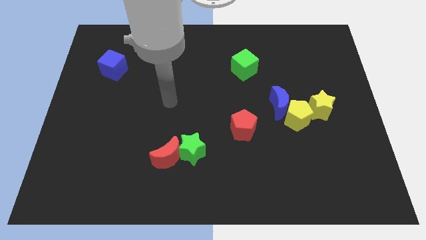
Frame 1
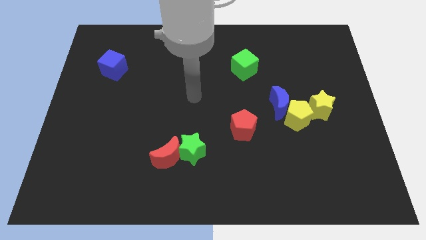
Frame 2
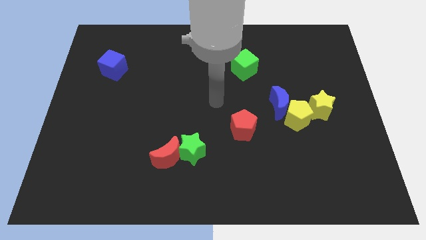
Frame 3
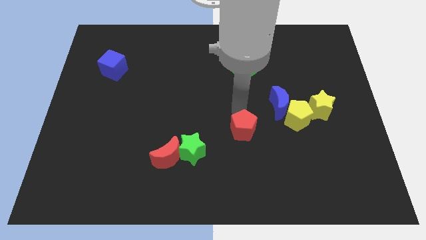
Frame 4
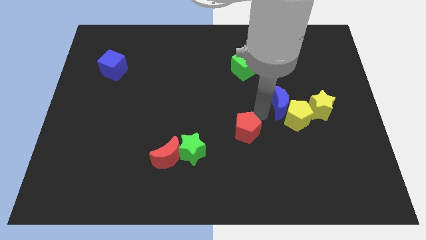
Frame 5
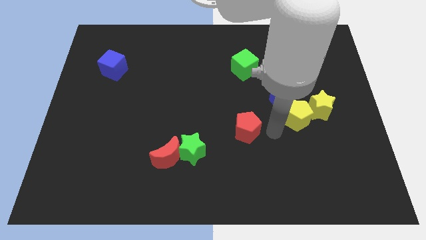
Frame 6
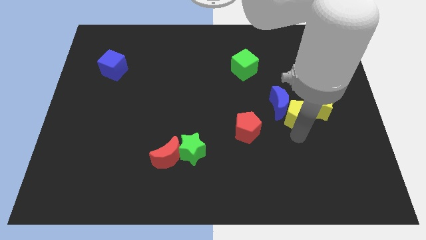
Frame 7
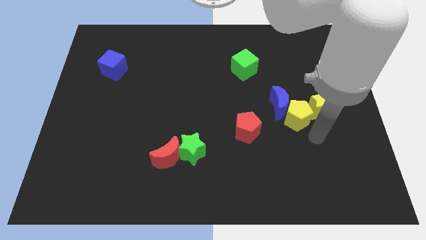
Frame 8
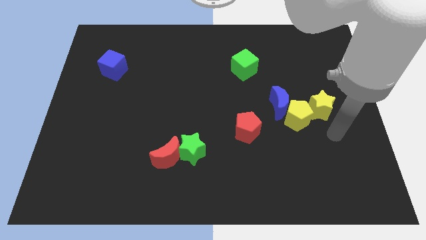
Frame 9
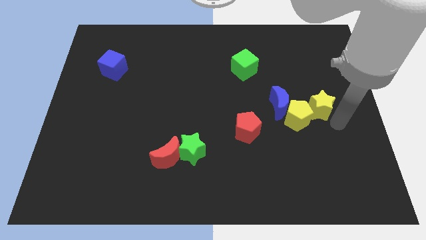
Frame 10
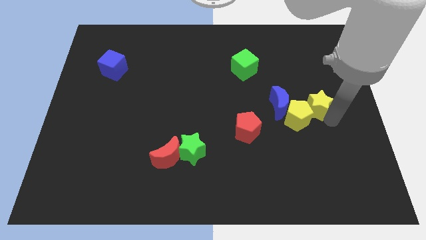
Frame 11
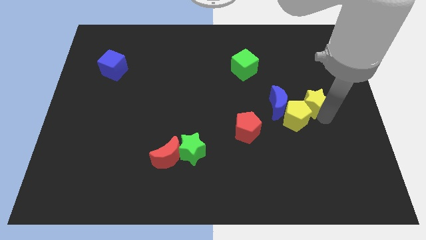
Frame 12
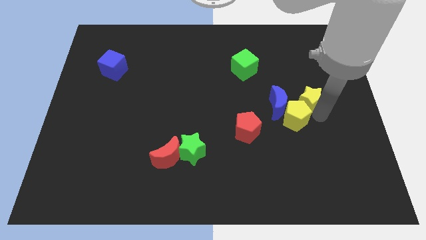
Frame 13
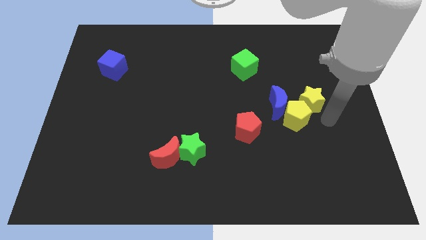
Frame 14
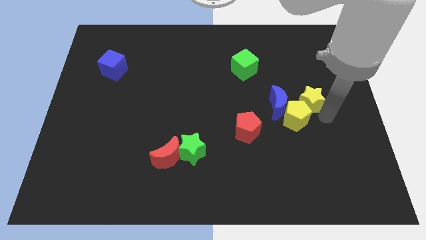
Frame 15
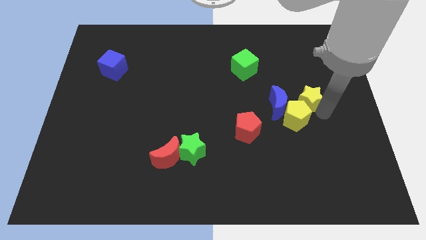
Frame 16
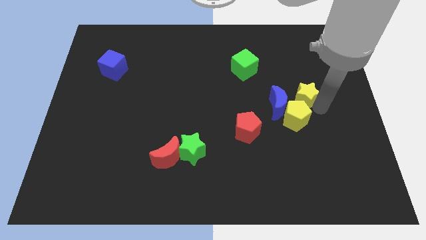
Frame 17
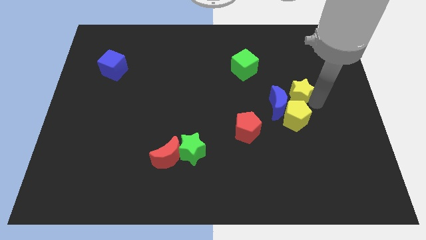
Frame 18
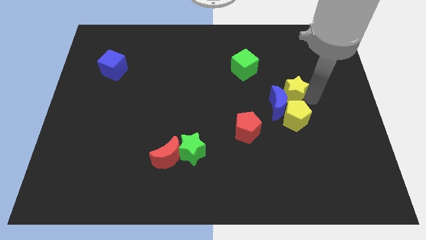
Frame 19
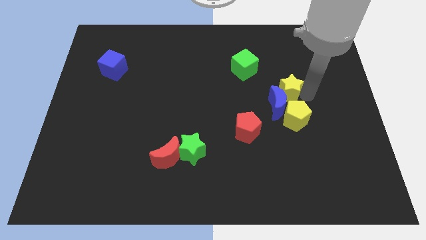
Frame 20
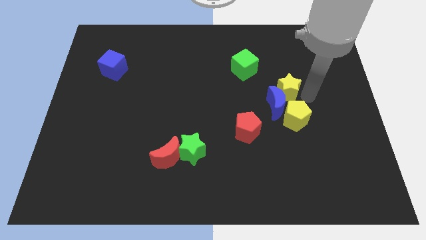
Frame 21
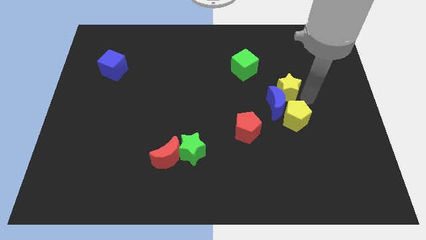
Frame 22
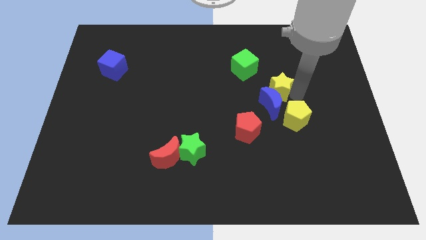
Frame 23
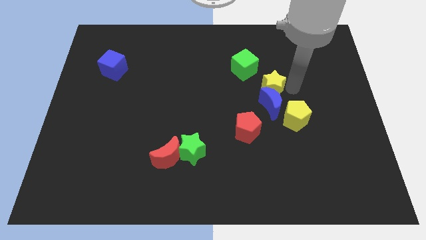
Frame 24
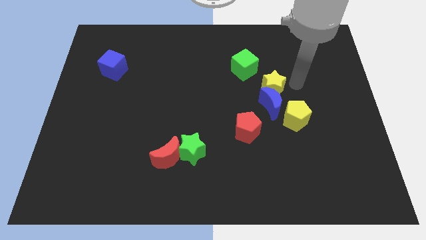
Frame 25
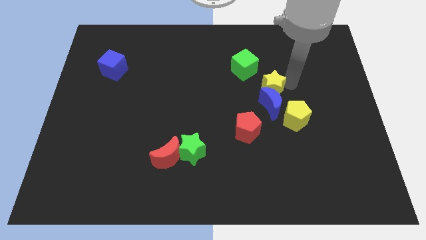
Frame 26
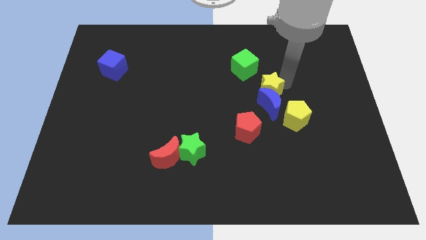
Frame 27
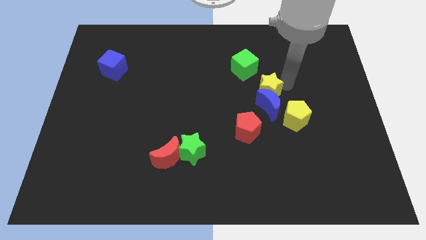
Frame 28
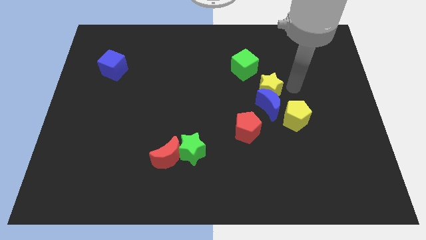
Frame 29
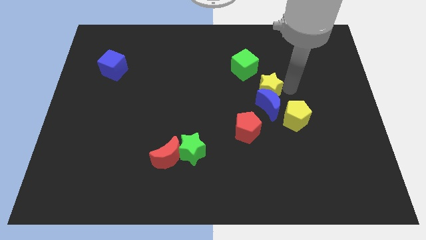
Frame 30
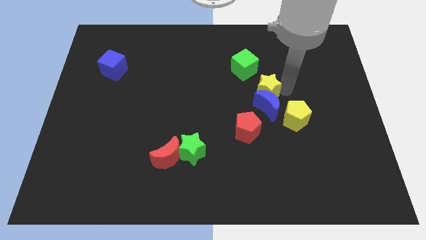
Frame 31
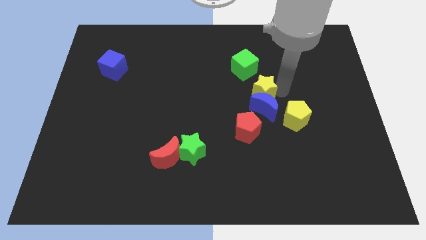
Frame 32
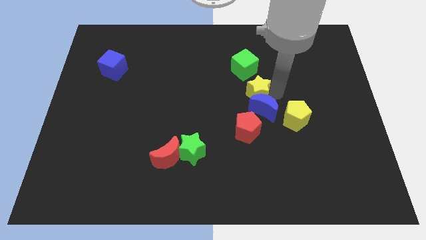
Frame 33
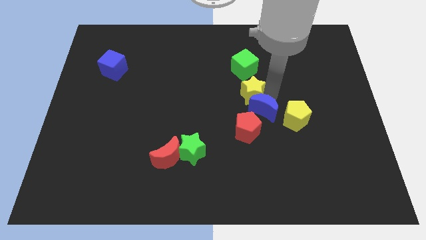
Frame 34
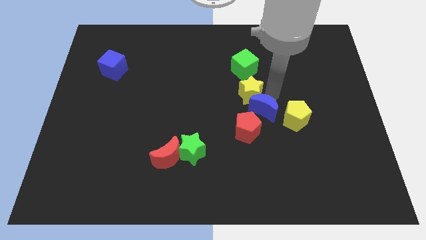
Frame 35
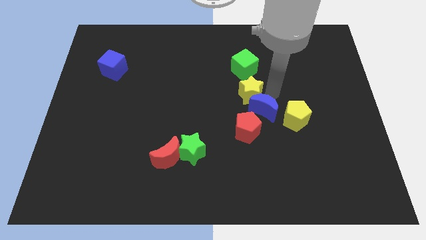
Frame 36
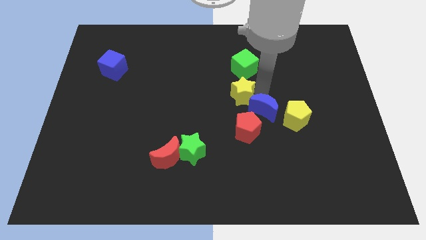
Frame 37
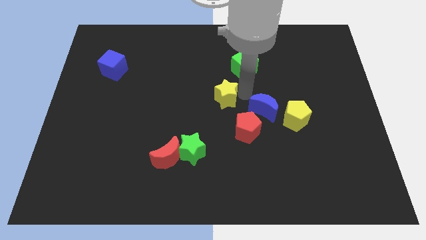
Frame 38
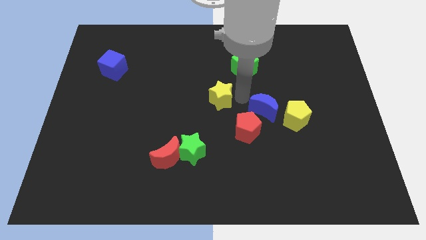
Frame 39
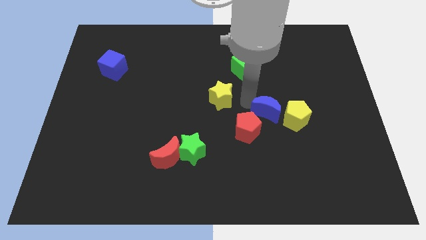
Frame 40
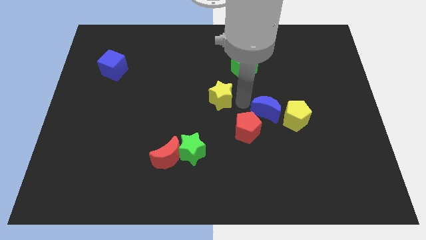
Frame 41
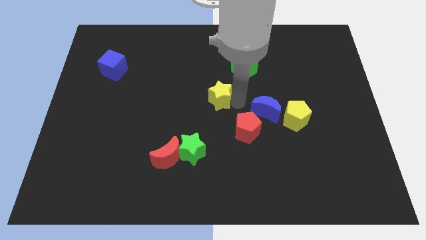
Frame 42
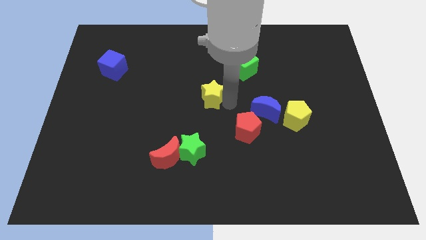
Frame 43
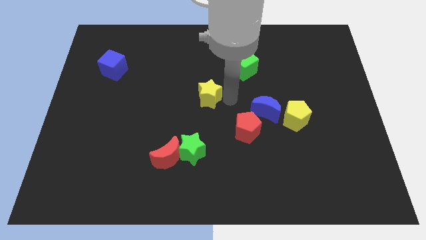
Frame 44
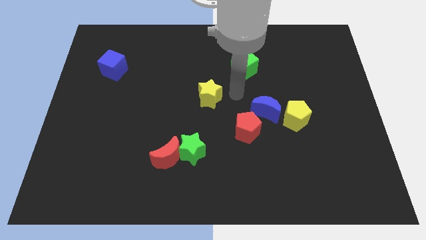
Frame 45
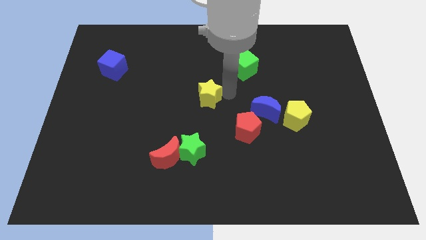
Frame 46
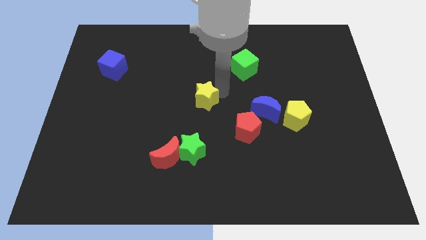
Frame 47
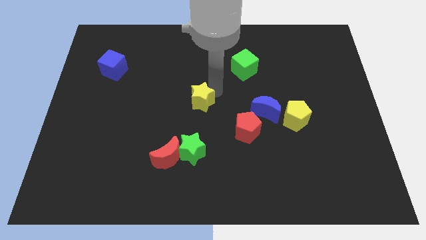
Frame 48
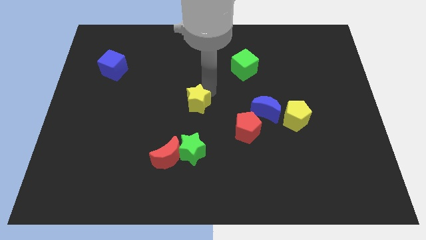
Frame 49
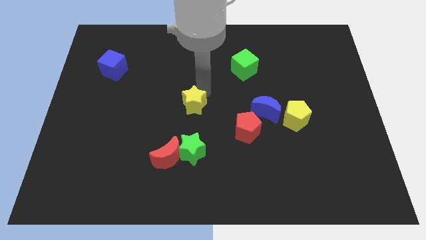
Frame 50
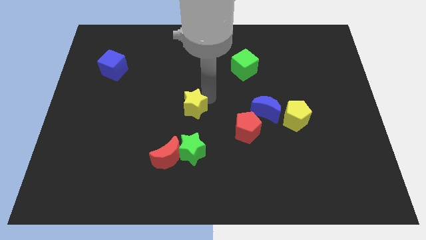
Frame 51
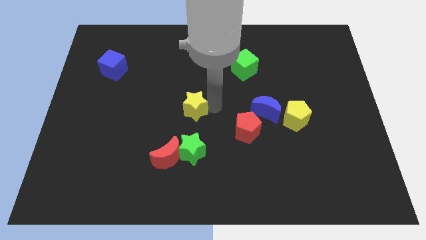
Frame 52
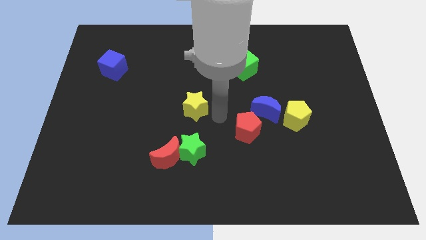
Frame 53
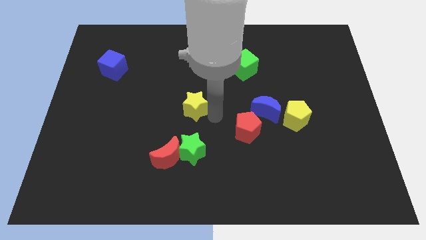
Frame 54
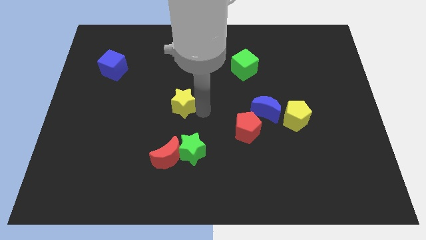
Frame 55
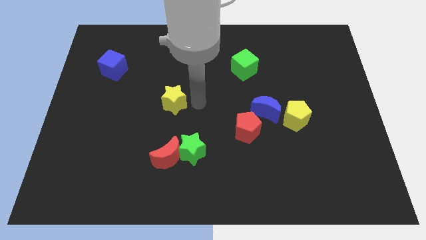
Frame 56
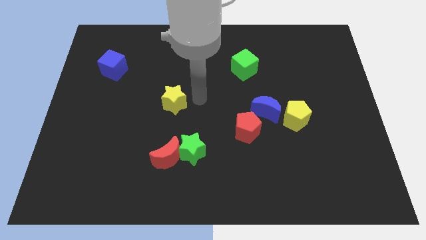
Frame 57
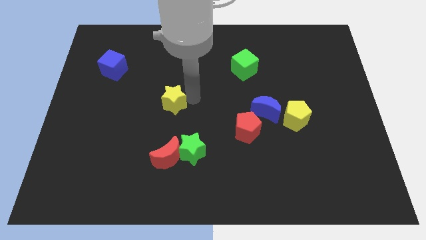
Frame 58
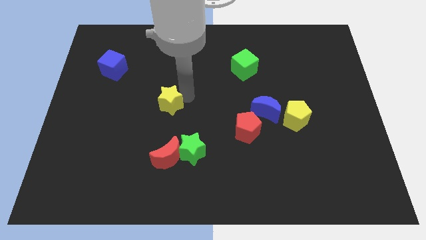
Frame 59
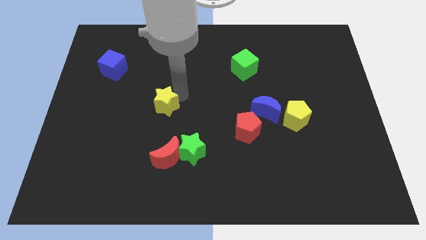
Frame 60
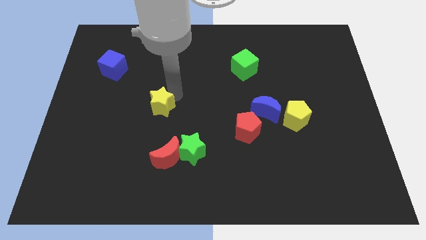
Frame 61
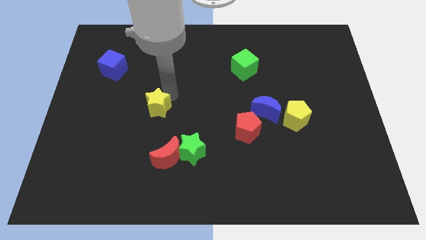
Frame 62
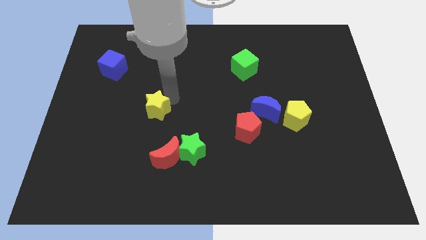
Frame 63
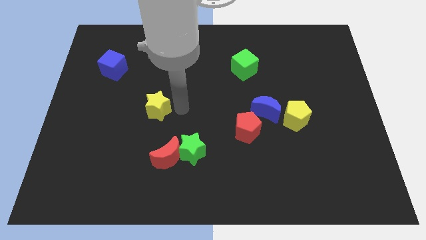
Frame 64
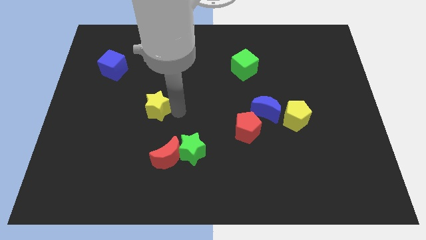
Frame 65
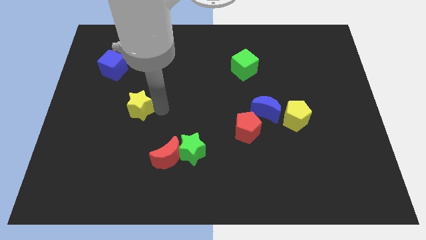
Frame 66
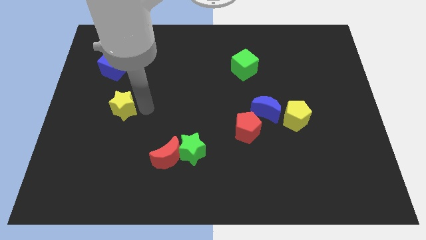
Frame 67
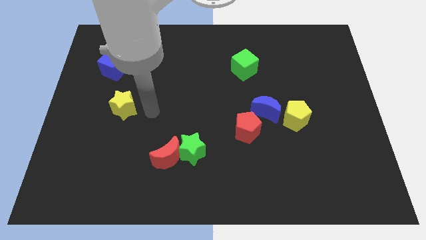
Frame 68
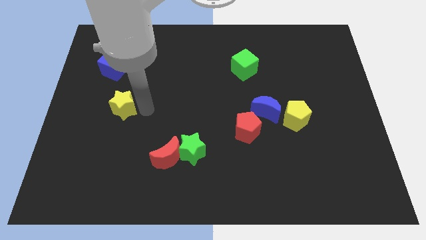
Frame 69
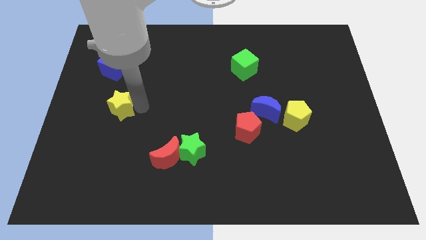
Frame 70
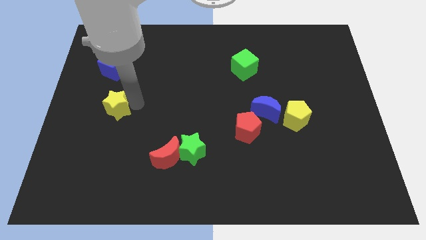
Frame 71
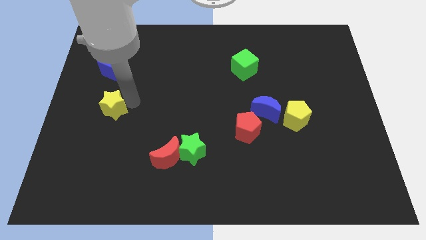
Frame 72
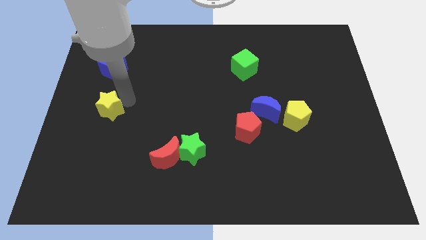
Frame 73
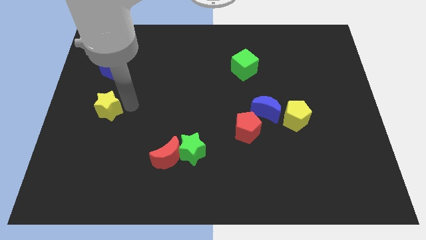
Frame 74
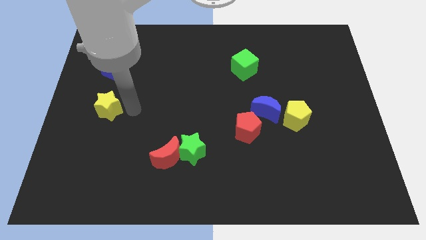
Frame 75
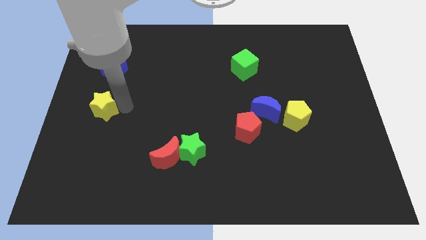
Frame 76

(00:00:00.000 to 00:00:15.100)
put the yellow star to the left side
